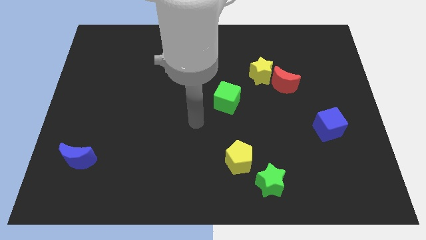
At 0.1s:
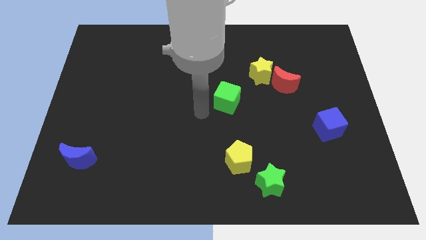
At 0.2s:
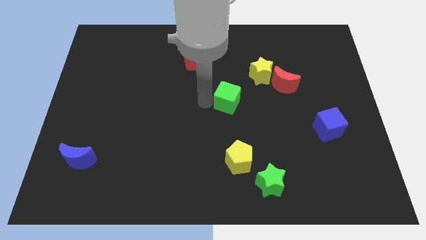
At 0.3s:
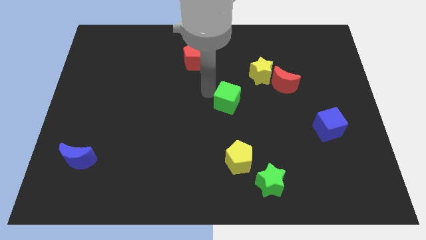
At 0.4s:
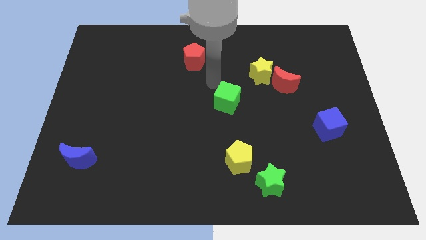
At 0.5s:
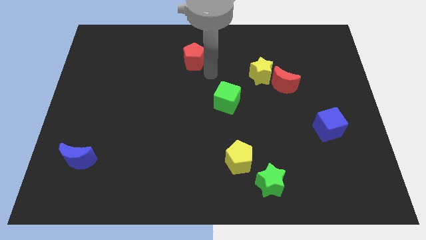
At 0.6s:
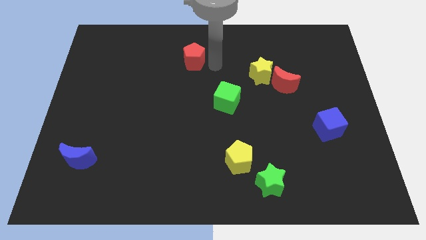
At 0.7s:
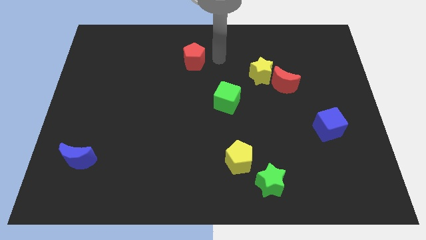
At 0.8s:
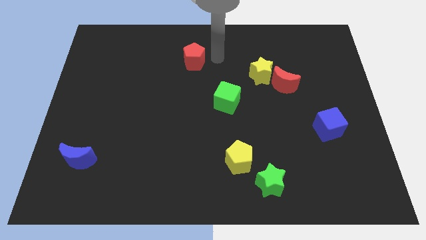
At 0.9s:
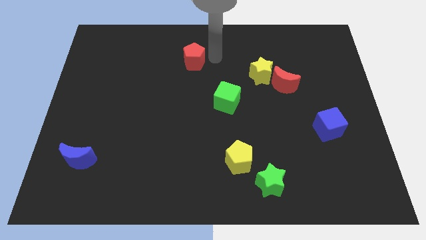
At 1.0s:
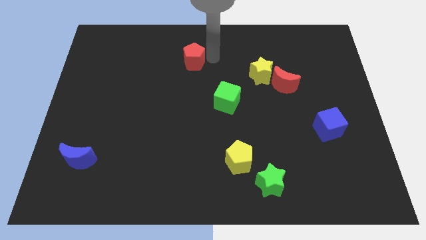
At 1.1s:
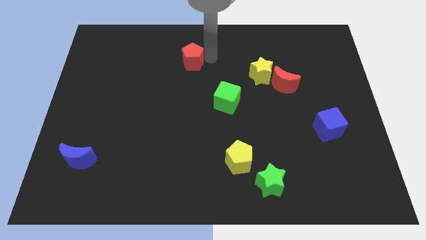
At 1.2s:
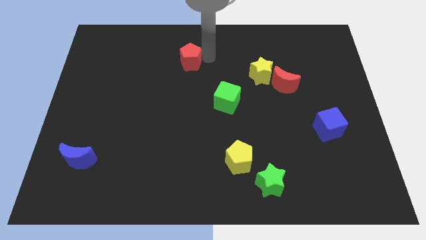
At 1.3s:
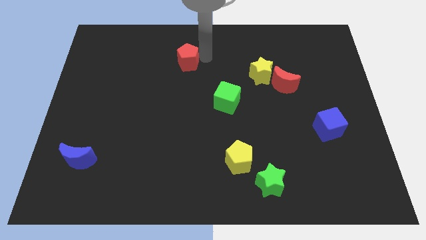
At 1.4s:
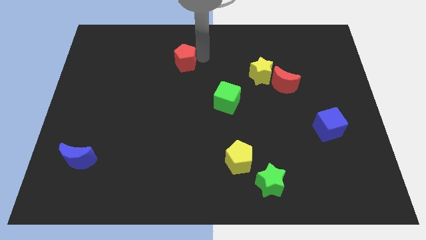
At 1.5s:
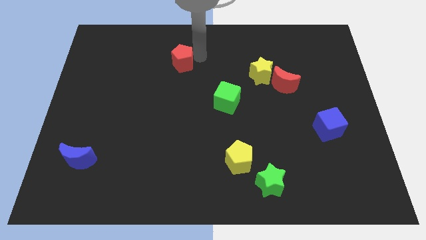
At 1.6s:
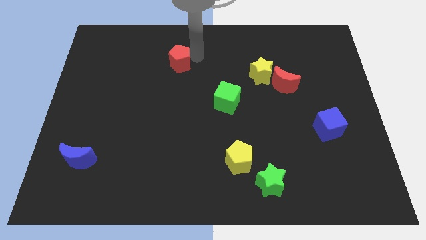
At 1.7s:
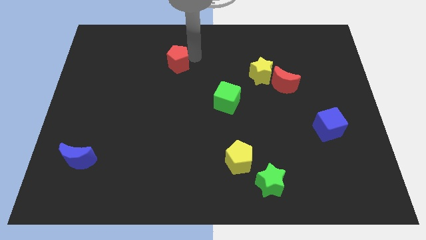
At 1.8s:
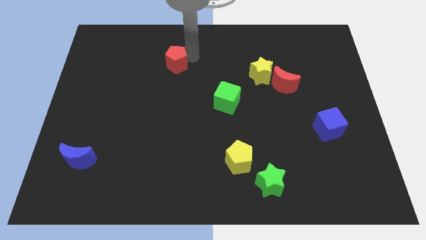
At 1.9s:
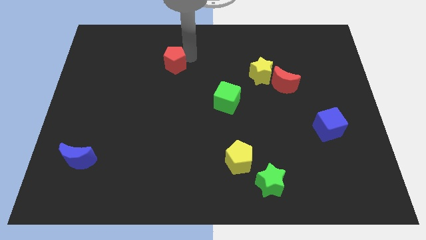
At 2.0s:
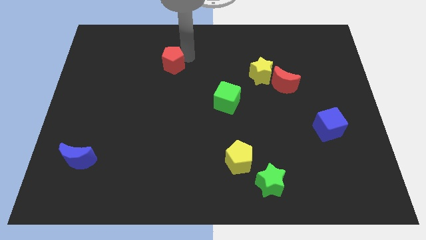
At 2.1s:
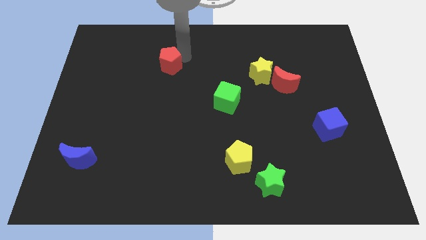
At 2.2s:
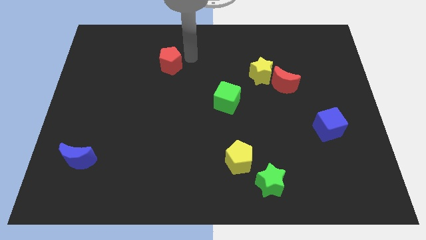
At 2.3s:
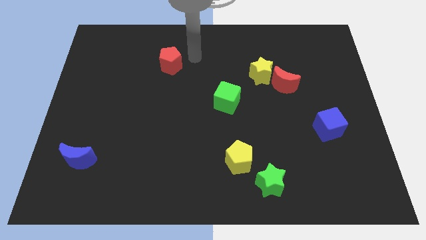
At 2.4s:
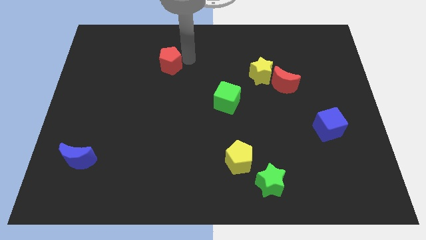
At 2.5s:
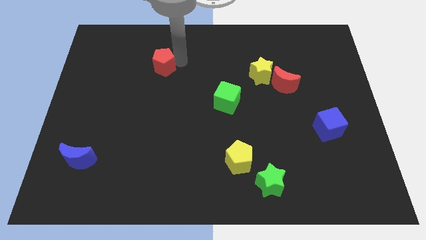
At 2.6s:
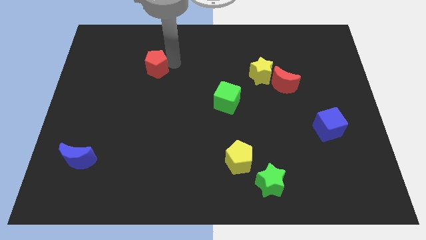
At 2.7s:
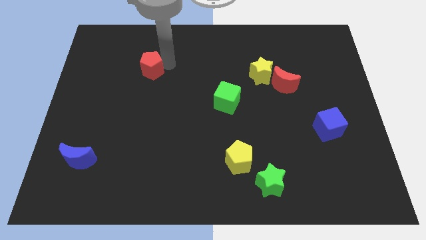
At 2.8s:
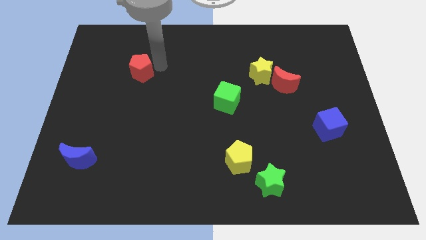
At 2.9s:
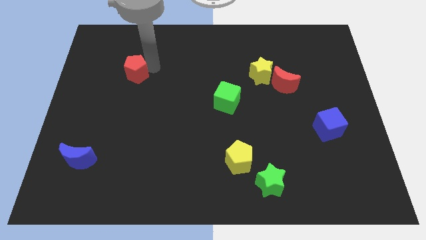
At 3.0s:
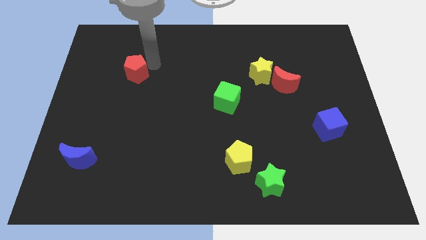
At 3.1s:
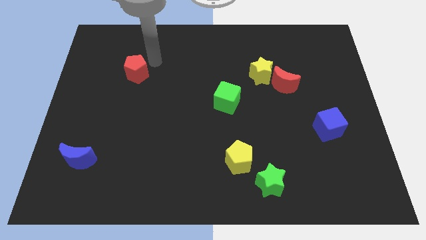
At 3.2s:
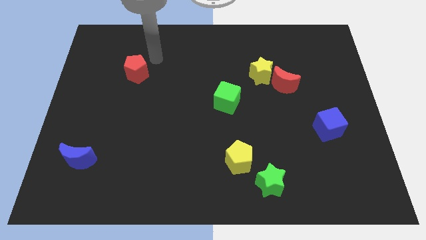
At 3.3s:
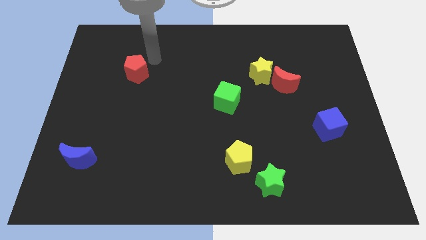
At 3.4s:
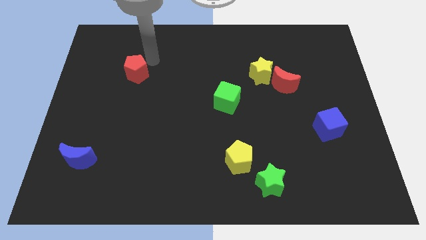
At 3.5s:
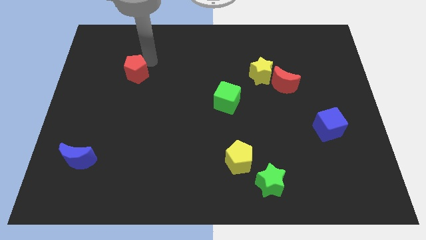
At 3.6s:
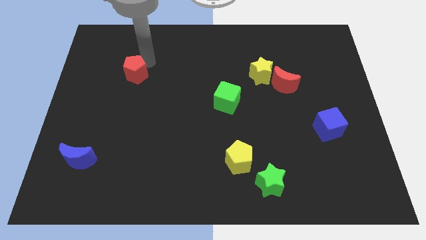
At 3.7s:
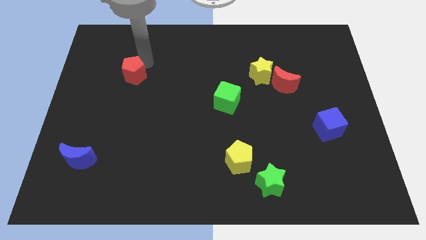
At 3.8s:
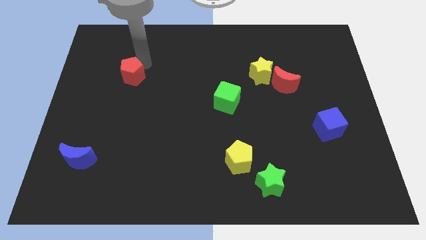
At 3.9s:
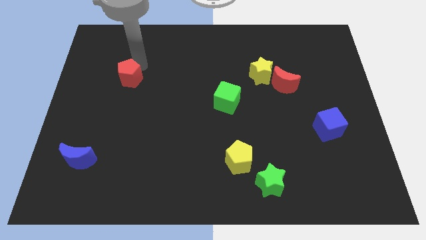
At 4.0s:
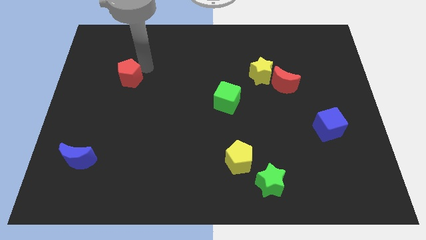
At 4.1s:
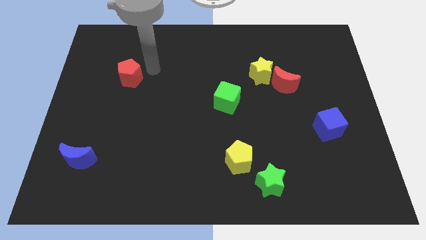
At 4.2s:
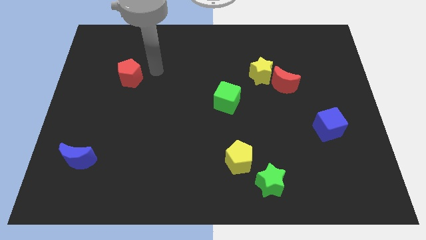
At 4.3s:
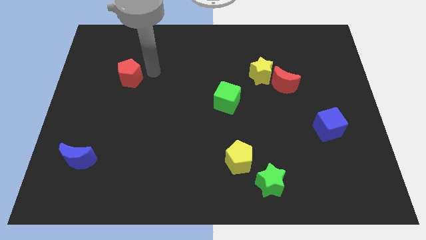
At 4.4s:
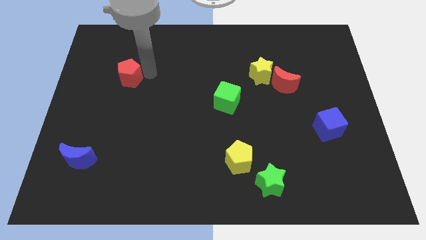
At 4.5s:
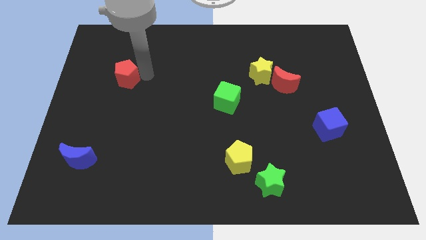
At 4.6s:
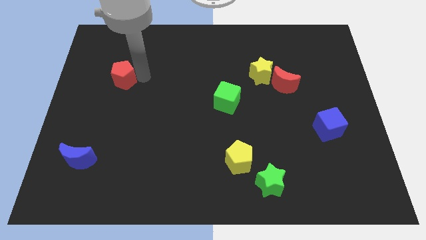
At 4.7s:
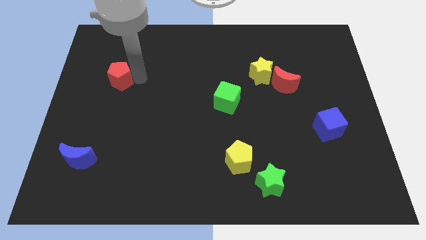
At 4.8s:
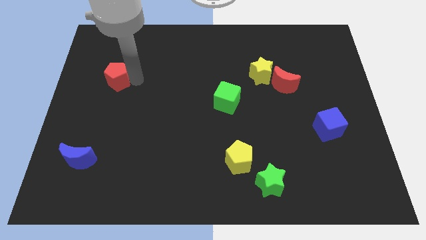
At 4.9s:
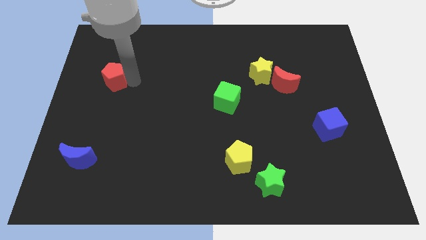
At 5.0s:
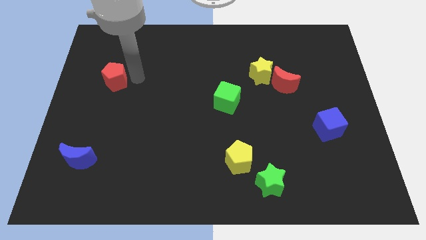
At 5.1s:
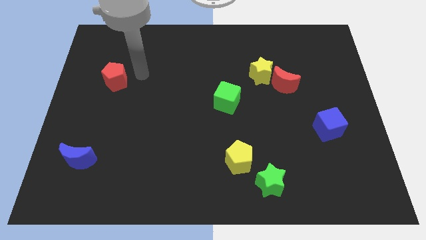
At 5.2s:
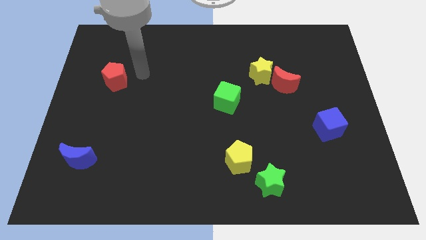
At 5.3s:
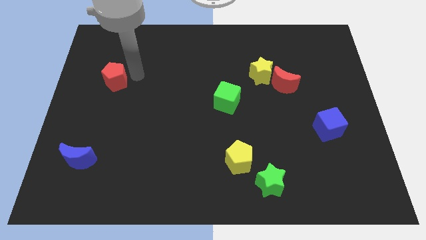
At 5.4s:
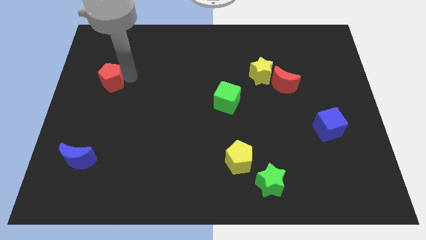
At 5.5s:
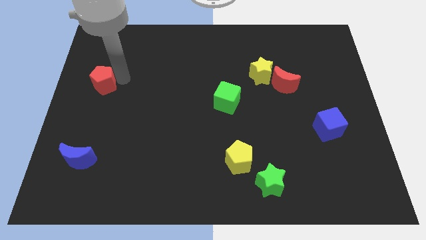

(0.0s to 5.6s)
move the red pentagon to the left side

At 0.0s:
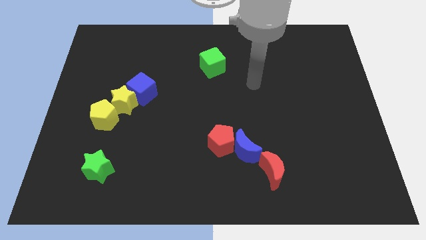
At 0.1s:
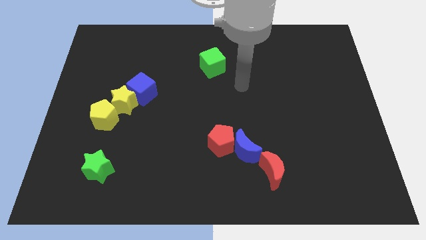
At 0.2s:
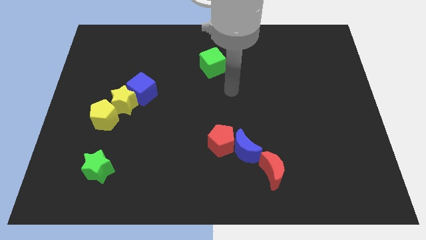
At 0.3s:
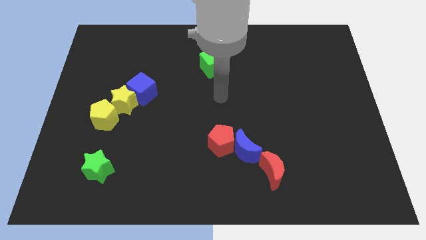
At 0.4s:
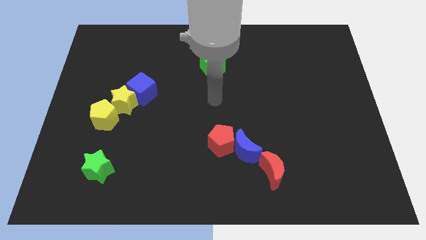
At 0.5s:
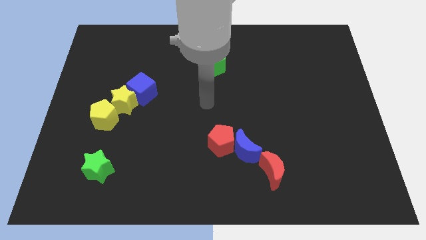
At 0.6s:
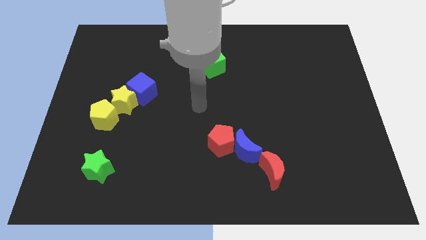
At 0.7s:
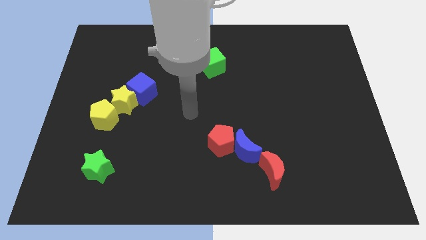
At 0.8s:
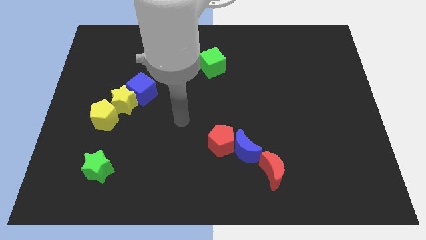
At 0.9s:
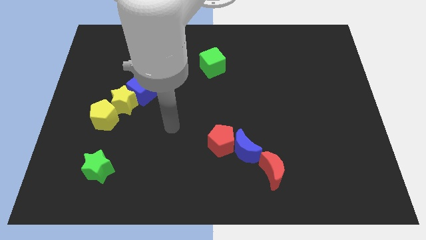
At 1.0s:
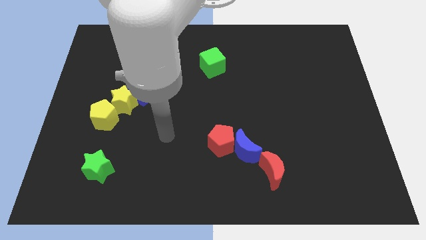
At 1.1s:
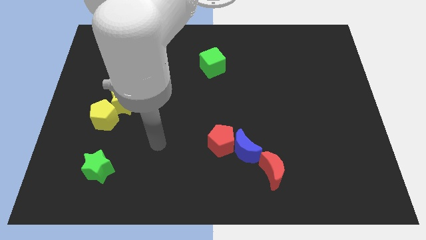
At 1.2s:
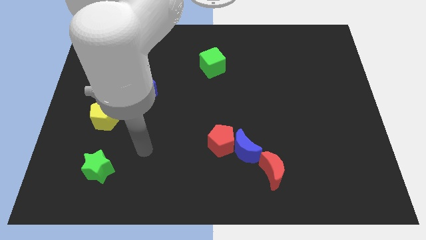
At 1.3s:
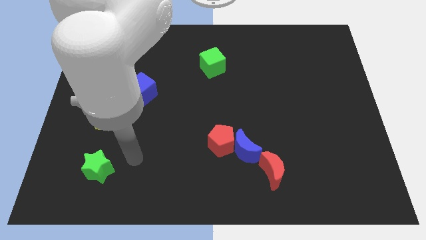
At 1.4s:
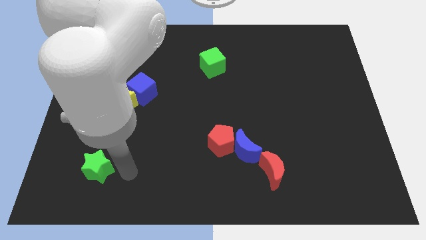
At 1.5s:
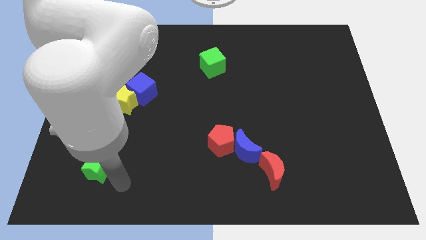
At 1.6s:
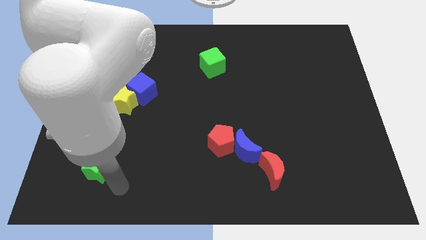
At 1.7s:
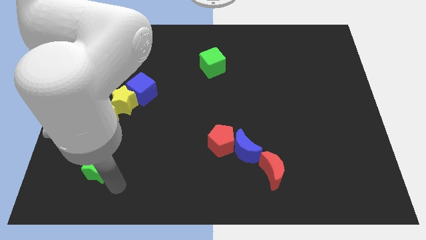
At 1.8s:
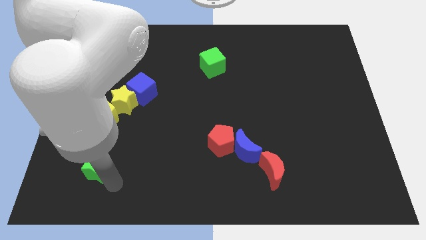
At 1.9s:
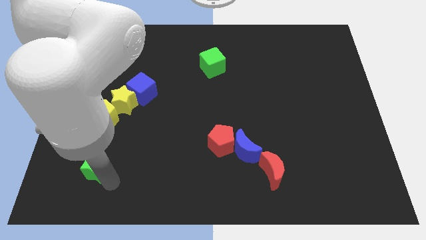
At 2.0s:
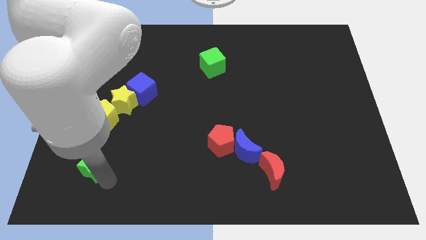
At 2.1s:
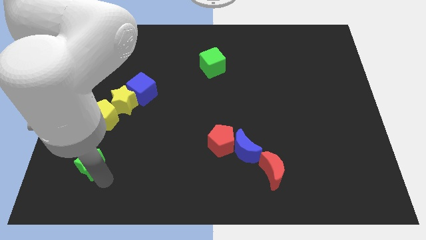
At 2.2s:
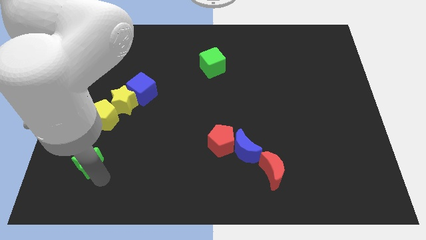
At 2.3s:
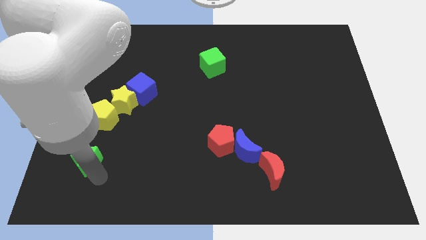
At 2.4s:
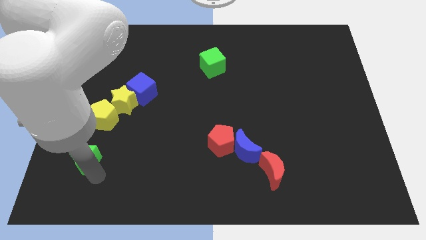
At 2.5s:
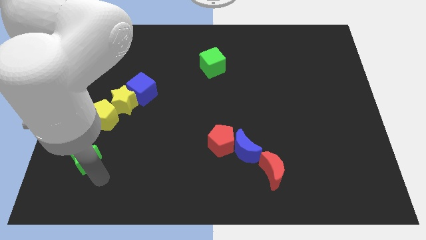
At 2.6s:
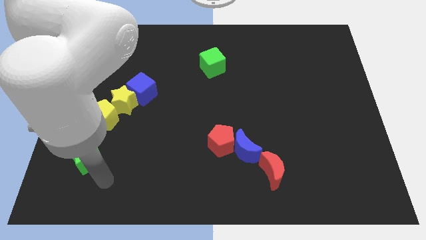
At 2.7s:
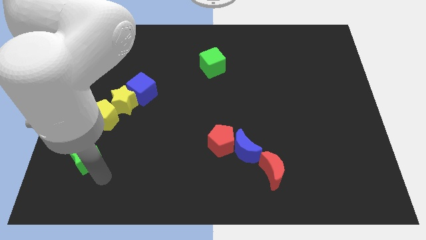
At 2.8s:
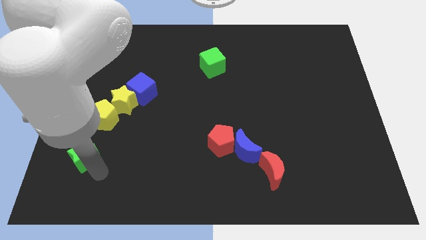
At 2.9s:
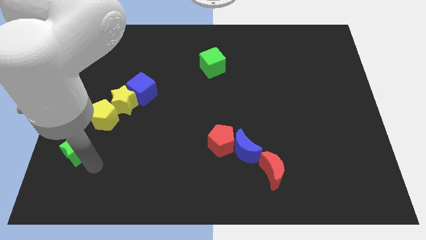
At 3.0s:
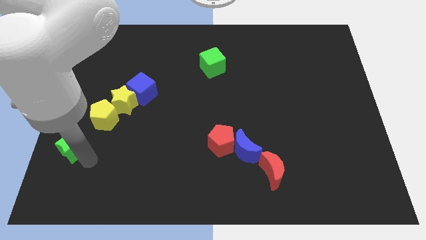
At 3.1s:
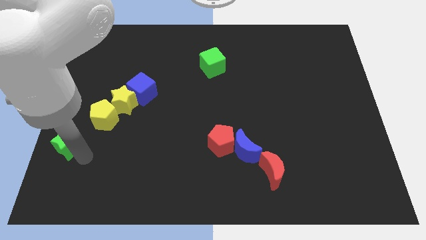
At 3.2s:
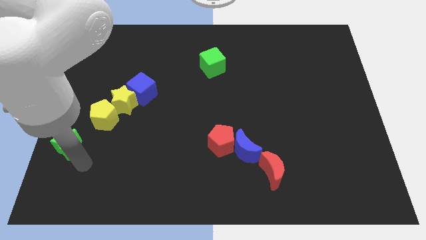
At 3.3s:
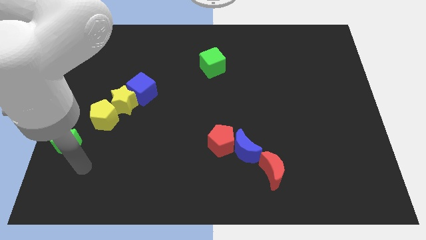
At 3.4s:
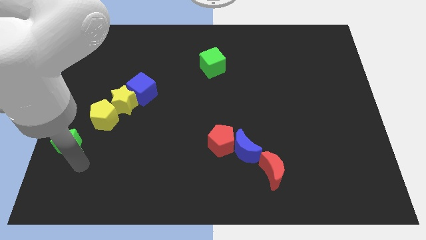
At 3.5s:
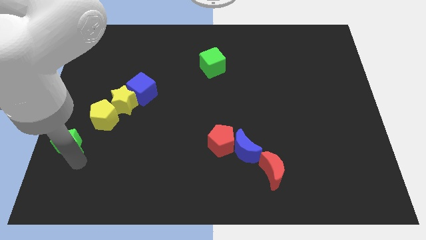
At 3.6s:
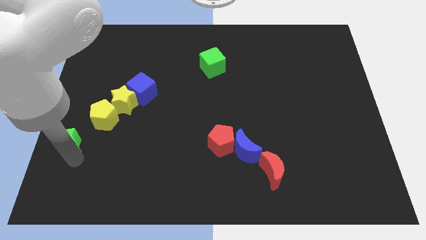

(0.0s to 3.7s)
put the green star to the center left
